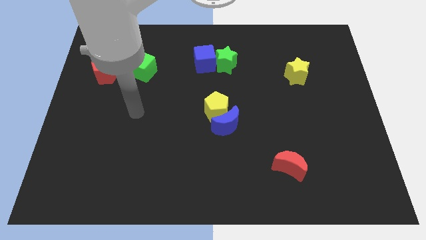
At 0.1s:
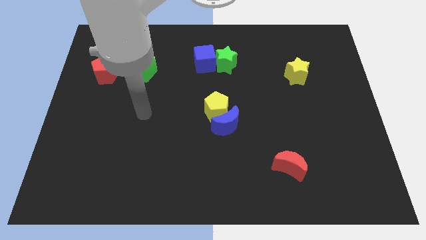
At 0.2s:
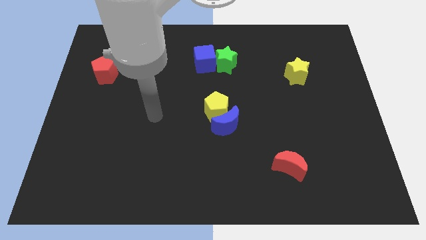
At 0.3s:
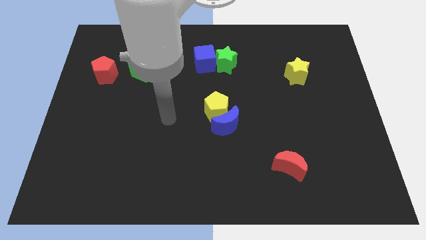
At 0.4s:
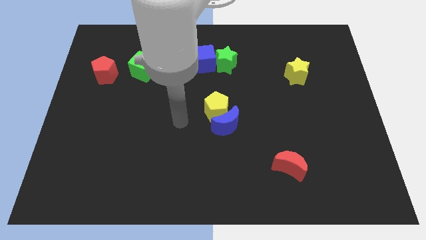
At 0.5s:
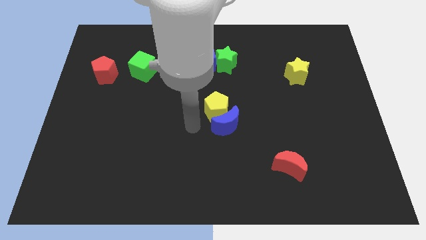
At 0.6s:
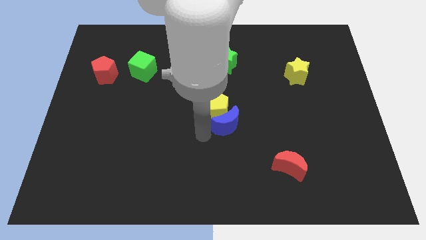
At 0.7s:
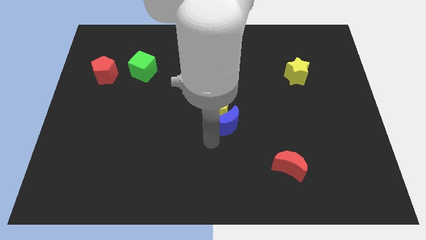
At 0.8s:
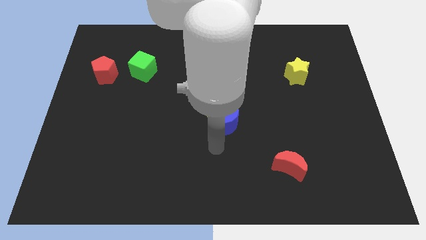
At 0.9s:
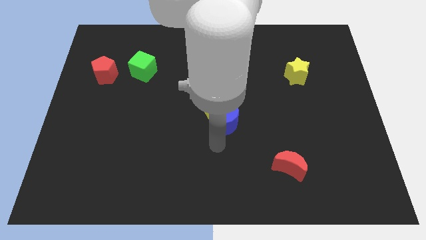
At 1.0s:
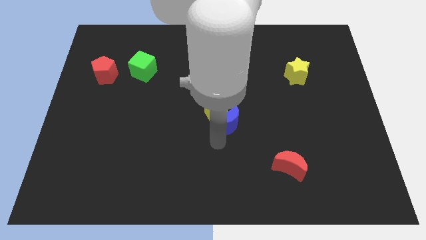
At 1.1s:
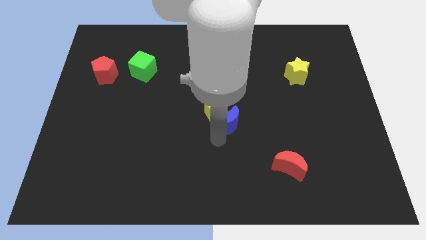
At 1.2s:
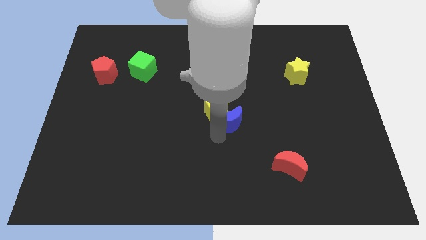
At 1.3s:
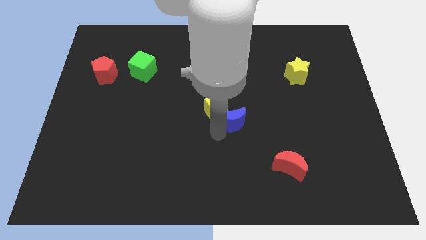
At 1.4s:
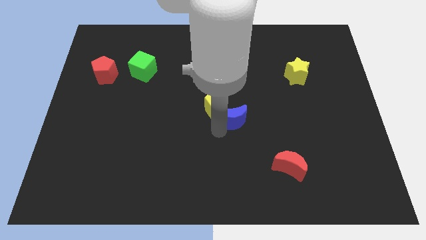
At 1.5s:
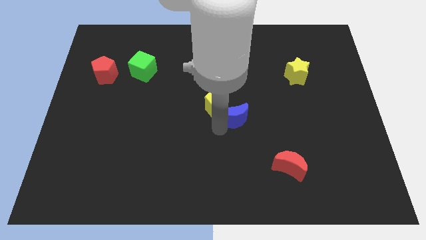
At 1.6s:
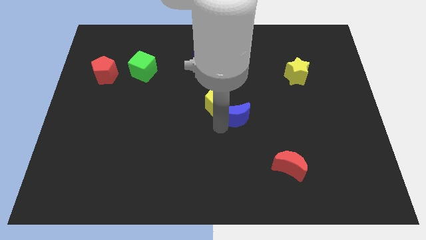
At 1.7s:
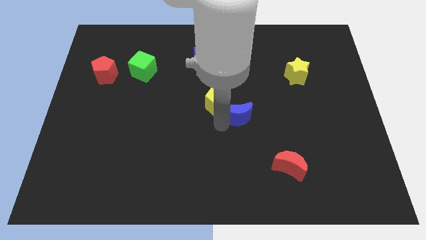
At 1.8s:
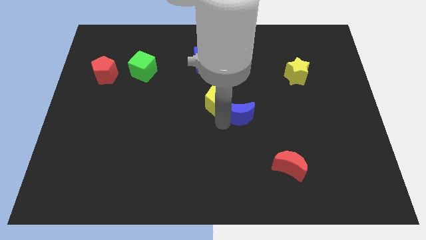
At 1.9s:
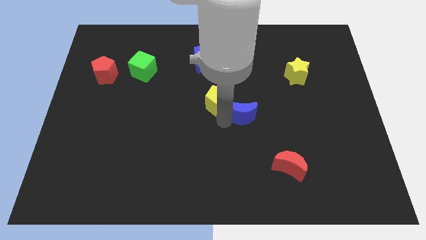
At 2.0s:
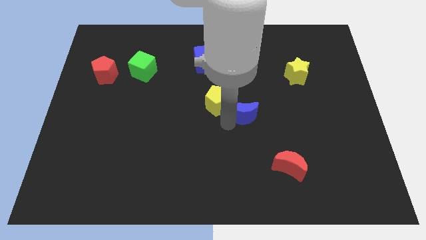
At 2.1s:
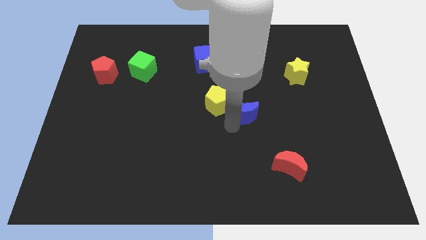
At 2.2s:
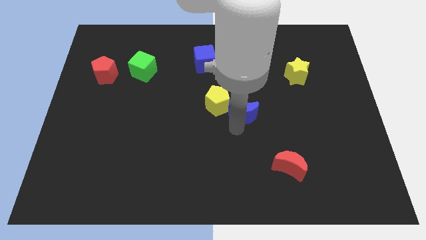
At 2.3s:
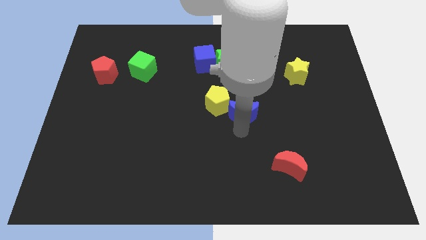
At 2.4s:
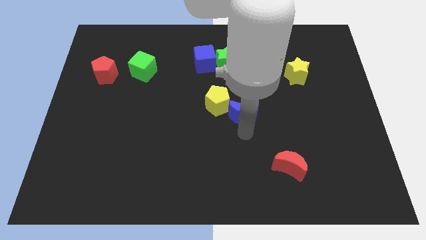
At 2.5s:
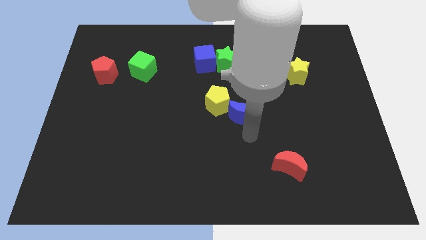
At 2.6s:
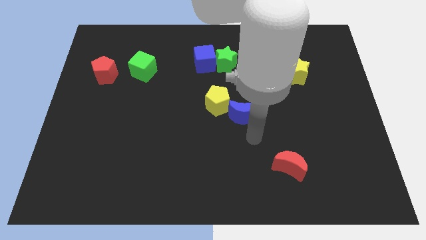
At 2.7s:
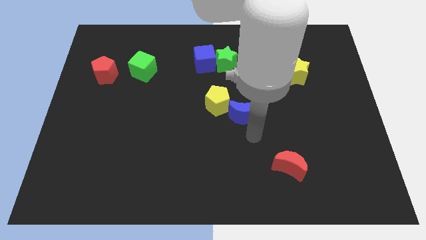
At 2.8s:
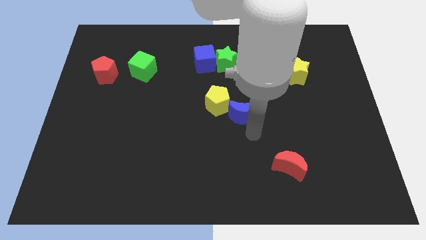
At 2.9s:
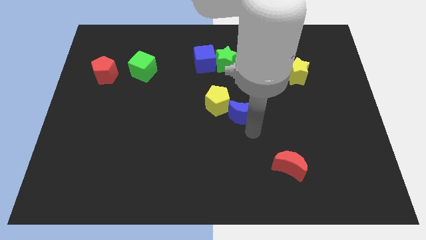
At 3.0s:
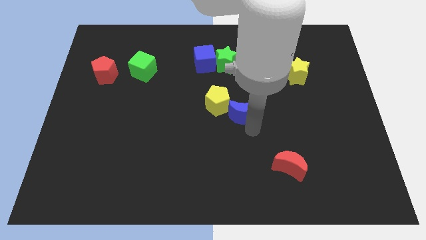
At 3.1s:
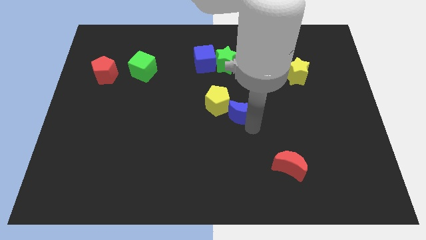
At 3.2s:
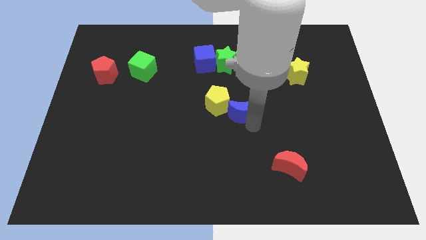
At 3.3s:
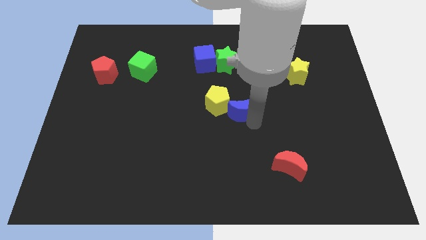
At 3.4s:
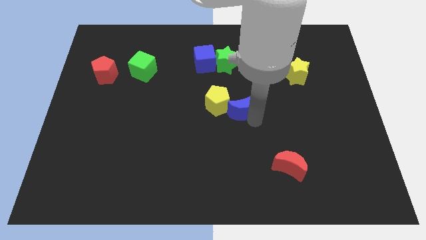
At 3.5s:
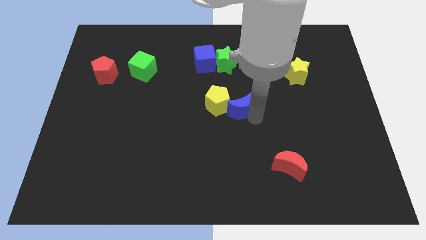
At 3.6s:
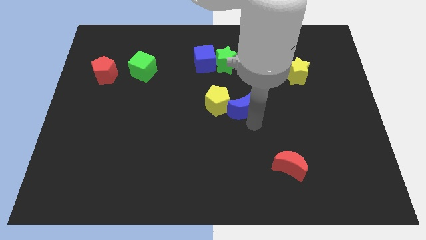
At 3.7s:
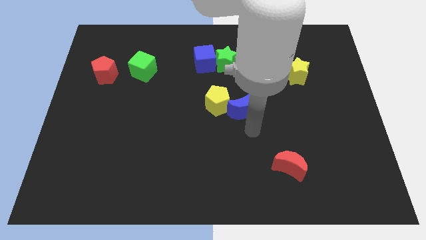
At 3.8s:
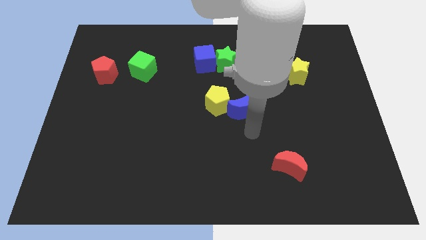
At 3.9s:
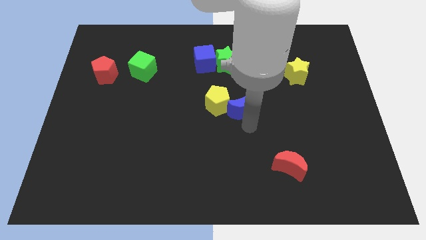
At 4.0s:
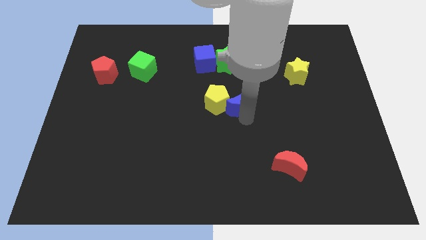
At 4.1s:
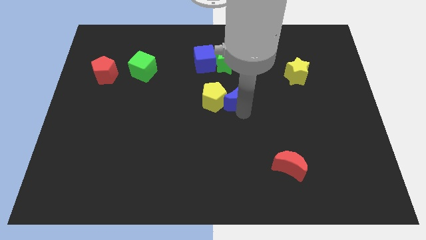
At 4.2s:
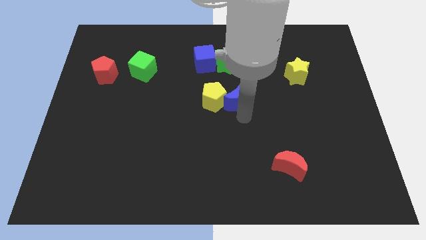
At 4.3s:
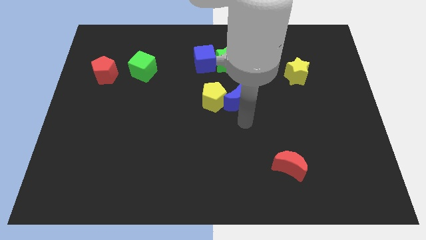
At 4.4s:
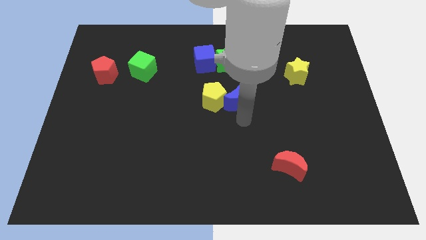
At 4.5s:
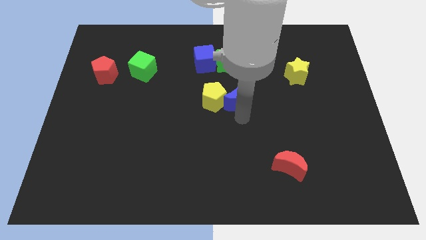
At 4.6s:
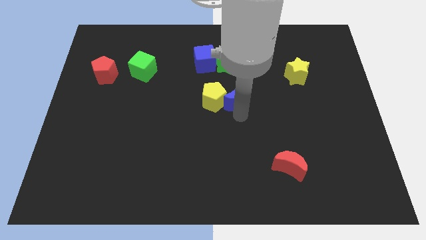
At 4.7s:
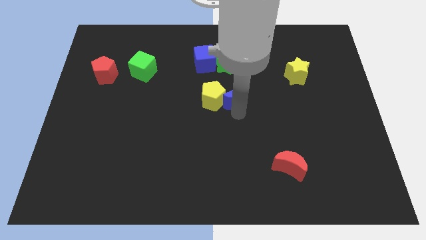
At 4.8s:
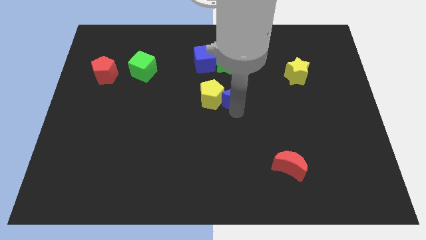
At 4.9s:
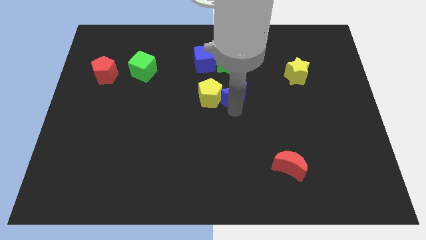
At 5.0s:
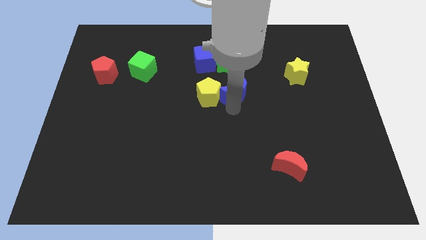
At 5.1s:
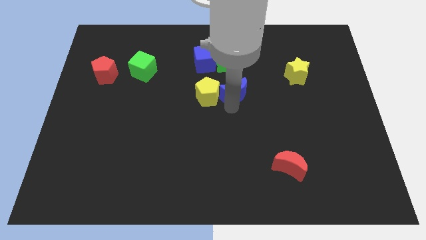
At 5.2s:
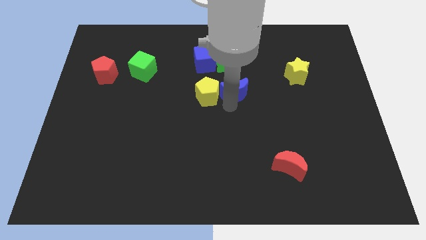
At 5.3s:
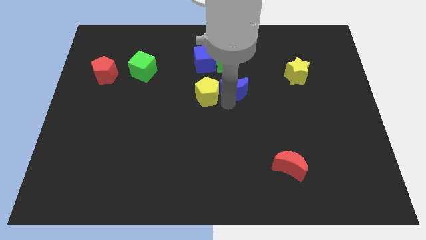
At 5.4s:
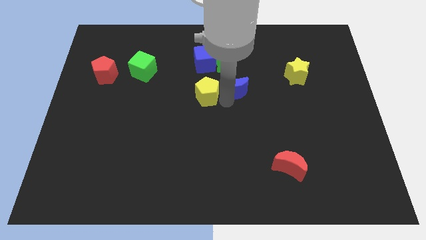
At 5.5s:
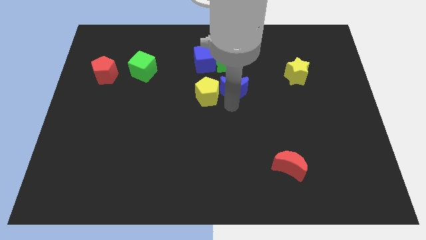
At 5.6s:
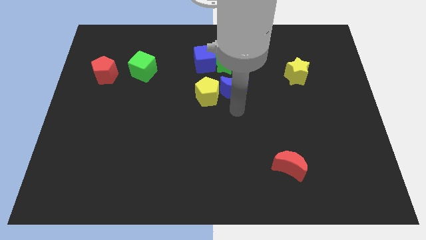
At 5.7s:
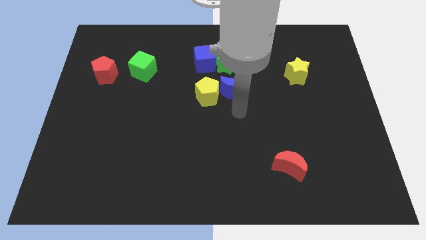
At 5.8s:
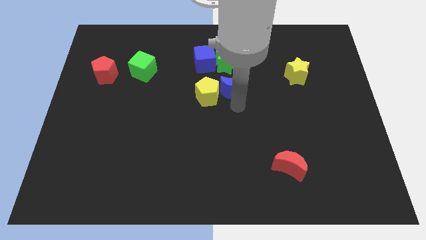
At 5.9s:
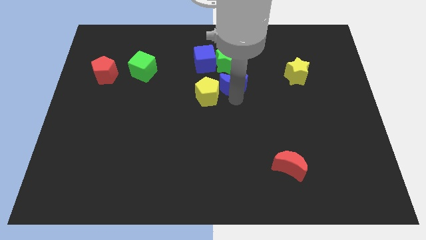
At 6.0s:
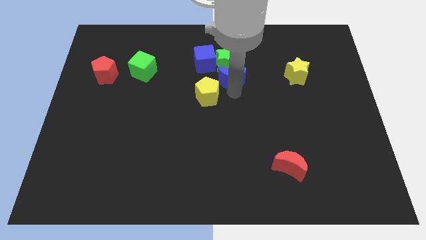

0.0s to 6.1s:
put the blue moon towards the green star

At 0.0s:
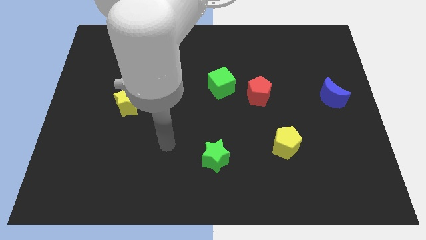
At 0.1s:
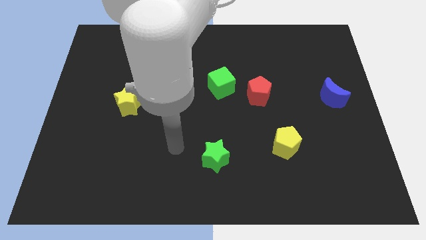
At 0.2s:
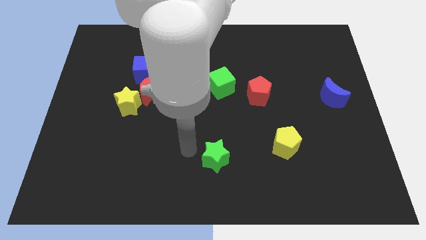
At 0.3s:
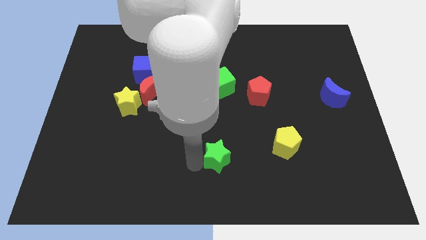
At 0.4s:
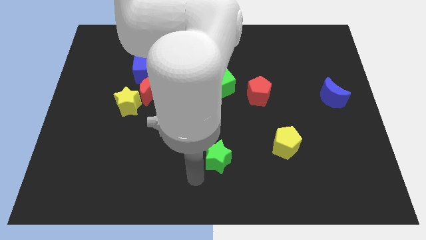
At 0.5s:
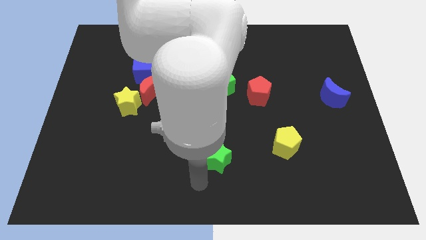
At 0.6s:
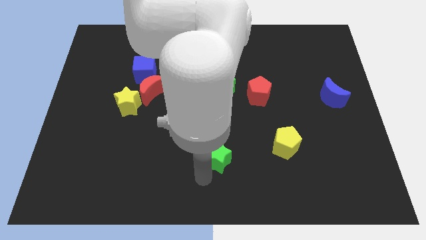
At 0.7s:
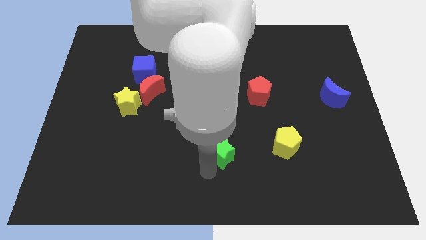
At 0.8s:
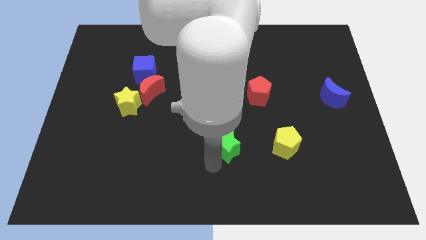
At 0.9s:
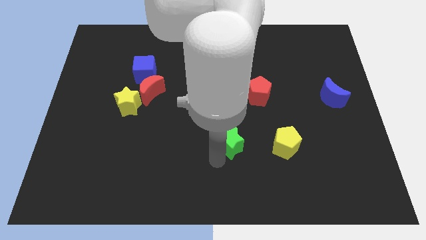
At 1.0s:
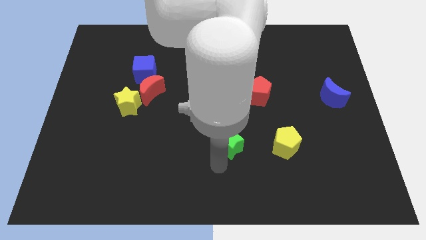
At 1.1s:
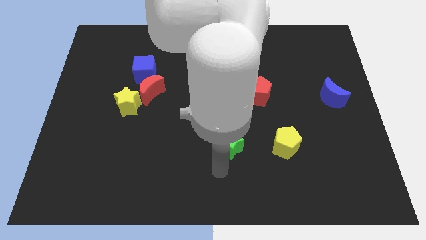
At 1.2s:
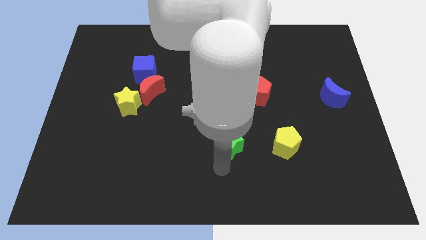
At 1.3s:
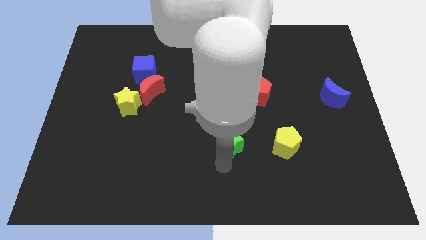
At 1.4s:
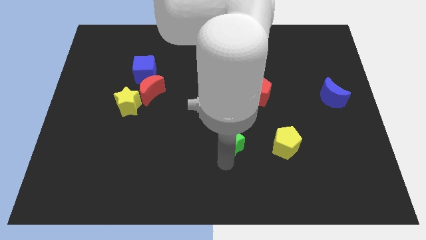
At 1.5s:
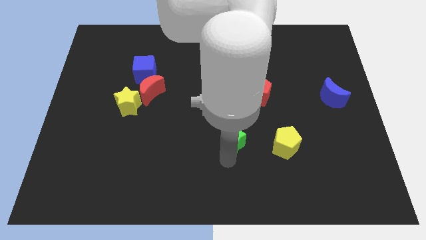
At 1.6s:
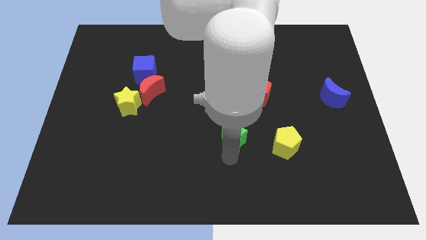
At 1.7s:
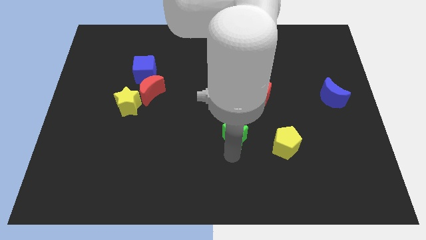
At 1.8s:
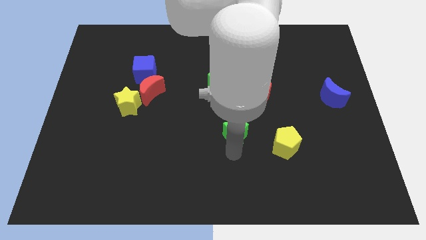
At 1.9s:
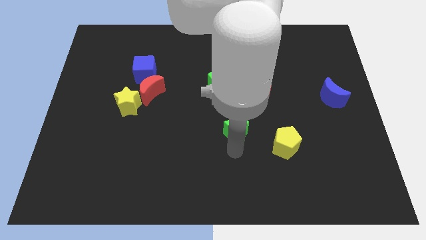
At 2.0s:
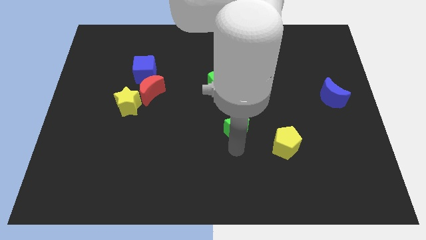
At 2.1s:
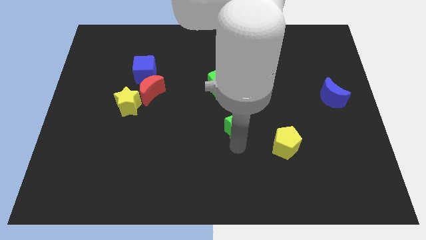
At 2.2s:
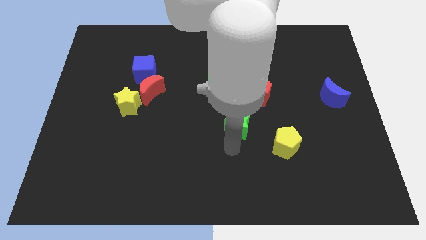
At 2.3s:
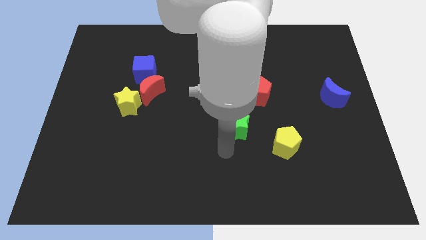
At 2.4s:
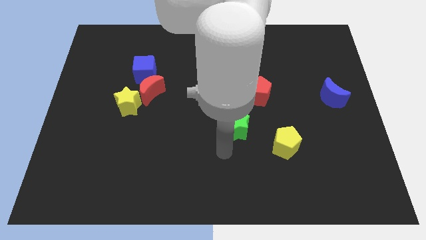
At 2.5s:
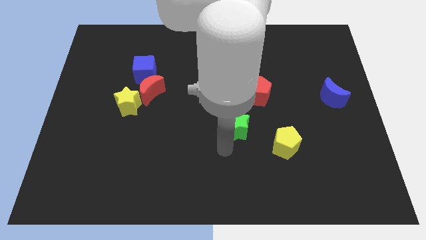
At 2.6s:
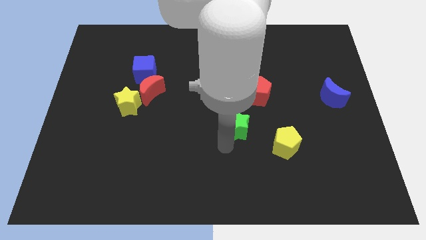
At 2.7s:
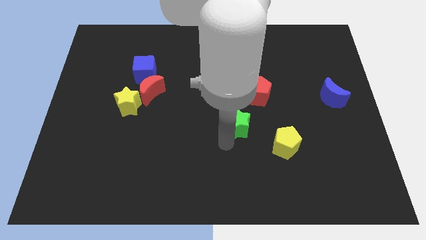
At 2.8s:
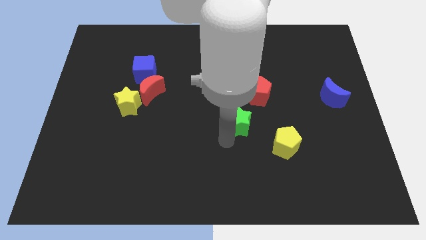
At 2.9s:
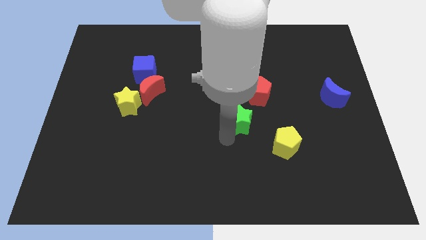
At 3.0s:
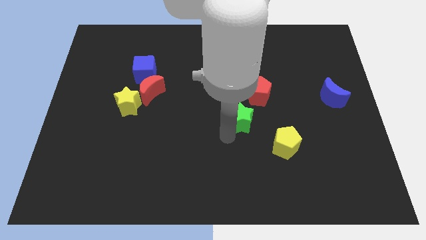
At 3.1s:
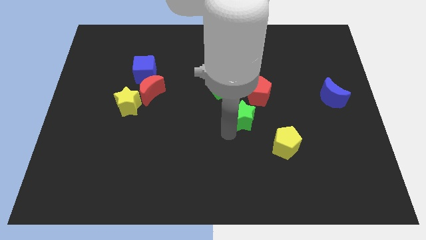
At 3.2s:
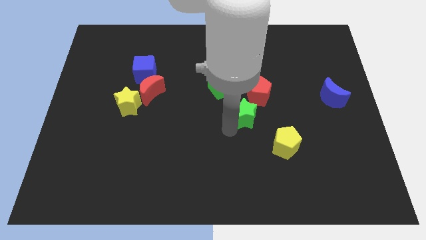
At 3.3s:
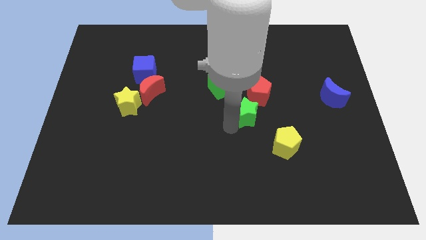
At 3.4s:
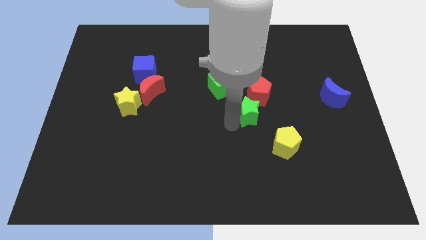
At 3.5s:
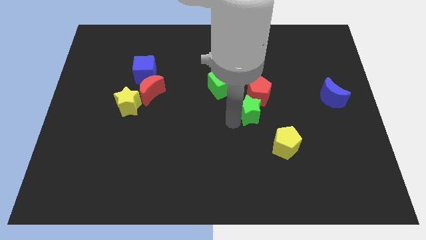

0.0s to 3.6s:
move the green star close to the red pentagon
